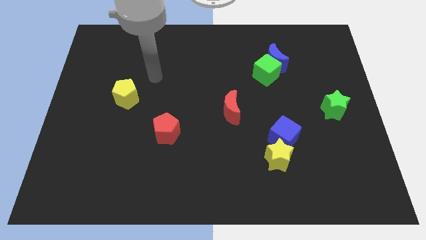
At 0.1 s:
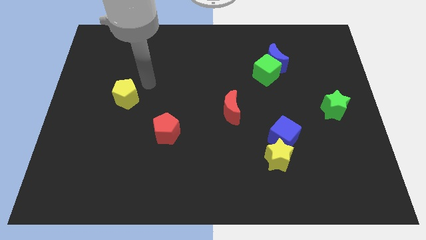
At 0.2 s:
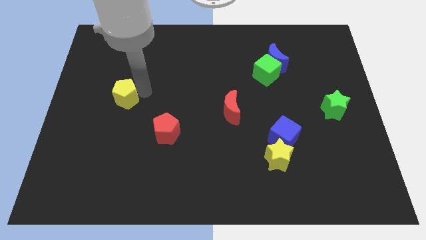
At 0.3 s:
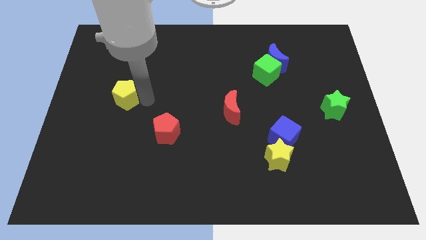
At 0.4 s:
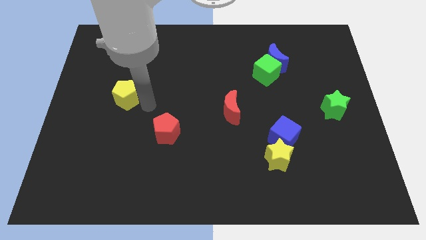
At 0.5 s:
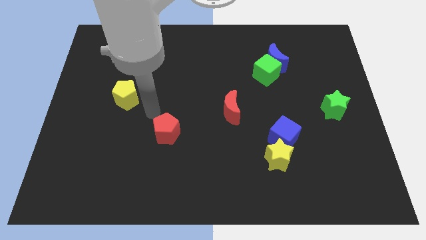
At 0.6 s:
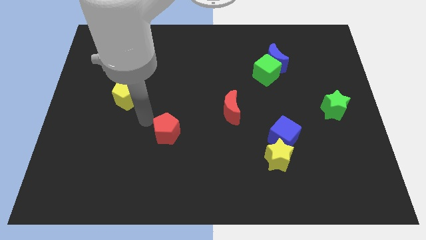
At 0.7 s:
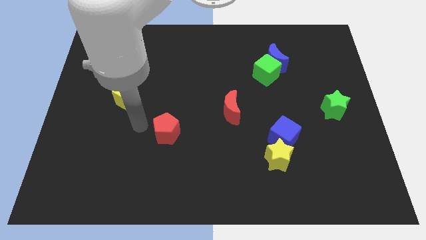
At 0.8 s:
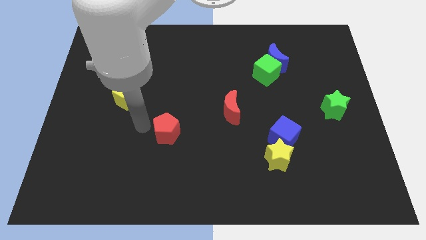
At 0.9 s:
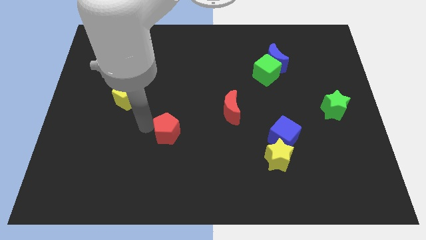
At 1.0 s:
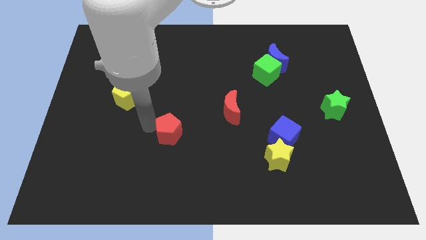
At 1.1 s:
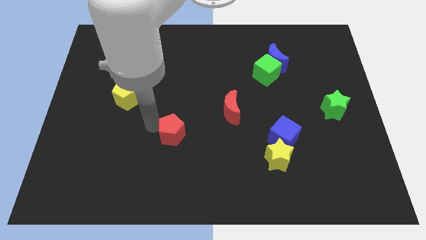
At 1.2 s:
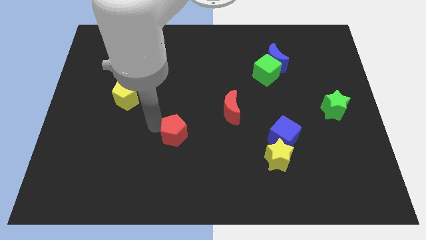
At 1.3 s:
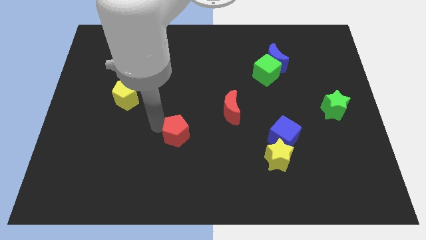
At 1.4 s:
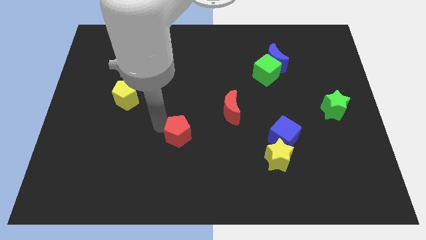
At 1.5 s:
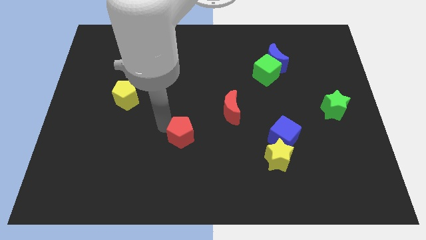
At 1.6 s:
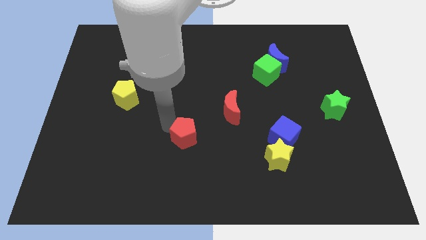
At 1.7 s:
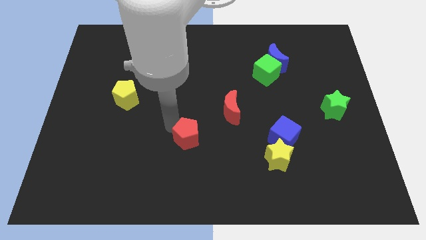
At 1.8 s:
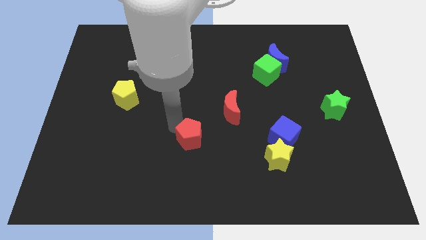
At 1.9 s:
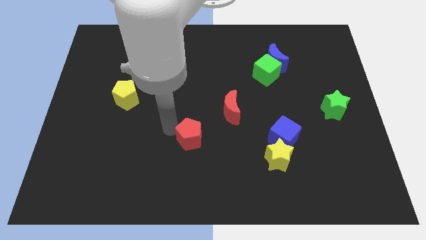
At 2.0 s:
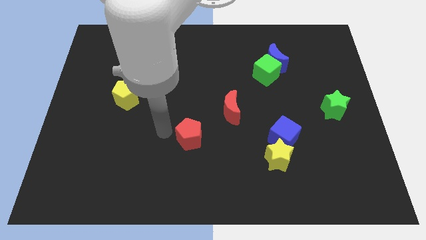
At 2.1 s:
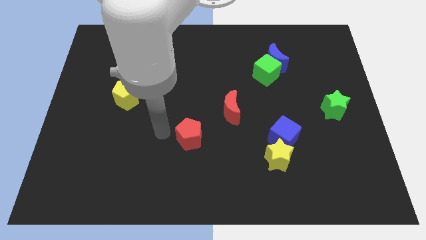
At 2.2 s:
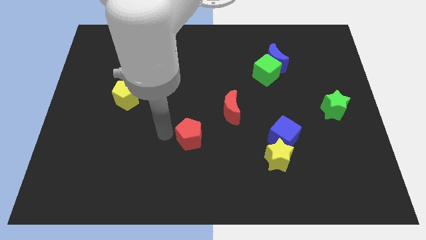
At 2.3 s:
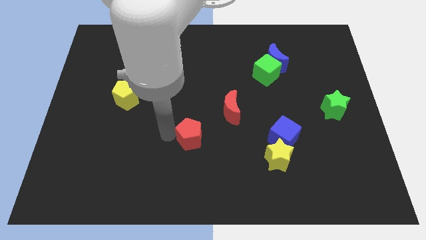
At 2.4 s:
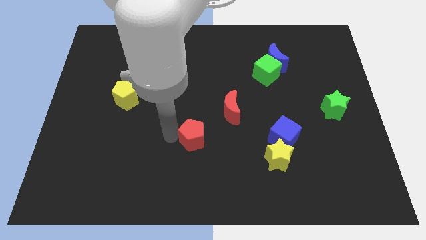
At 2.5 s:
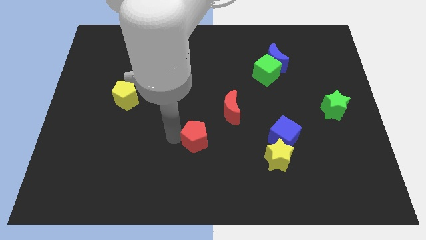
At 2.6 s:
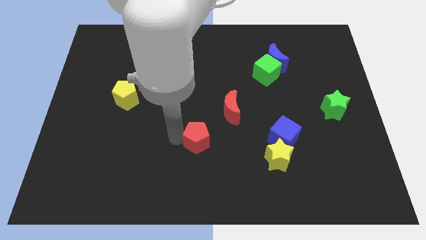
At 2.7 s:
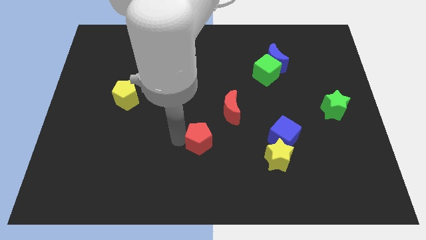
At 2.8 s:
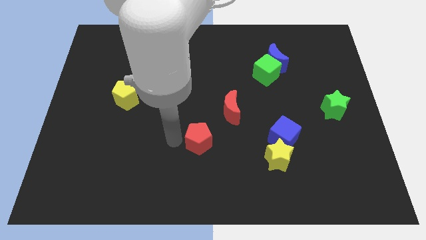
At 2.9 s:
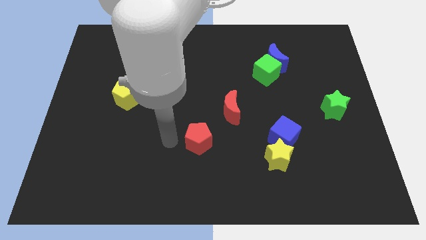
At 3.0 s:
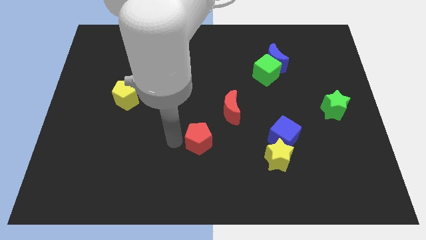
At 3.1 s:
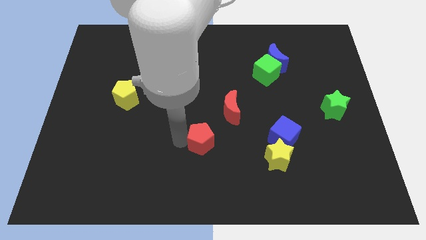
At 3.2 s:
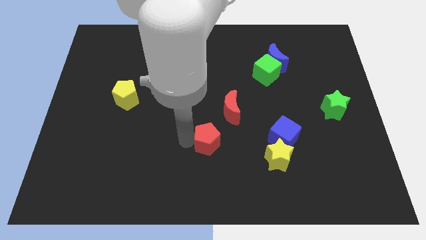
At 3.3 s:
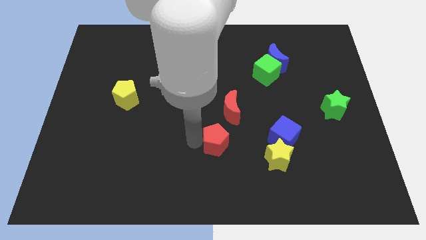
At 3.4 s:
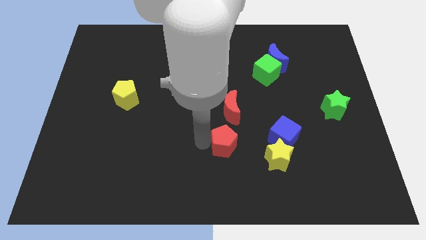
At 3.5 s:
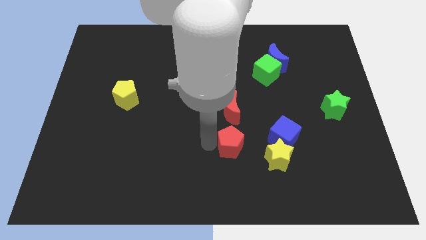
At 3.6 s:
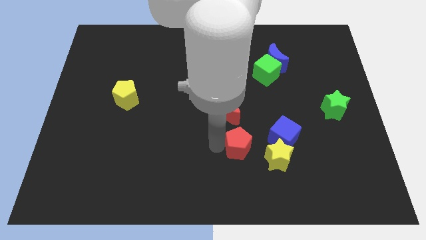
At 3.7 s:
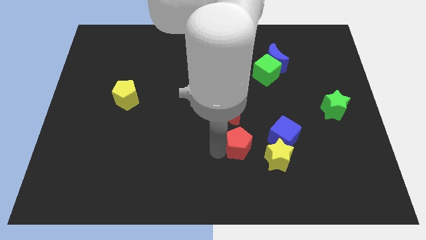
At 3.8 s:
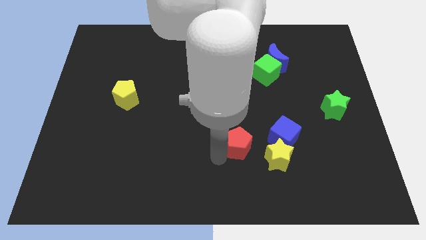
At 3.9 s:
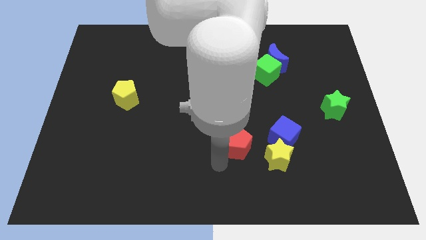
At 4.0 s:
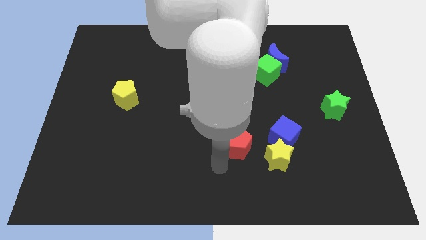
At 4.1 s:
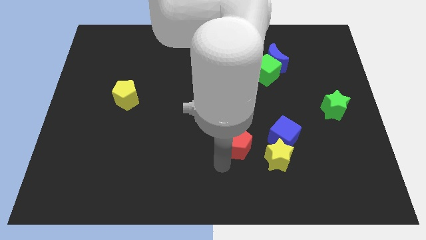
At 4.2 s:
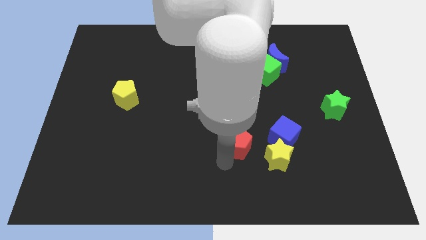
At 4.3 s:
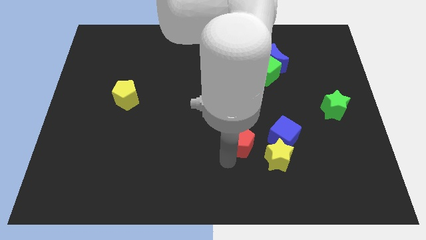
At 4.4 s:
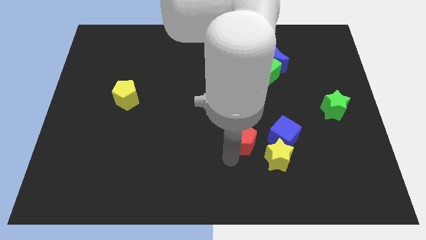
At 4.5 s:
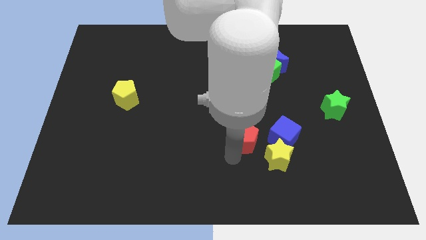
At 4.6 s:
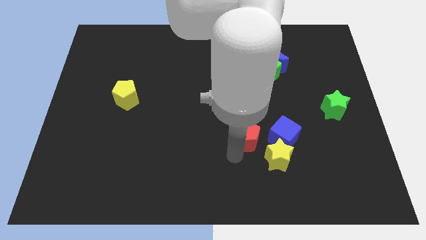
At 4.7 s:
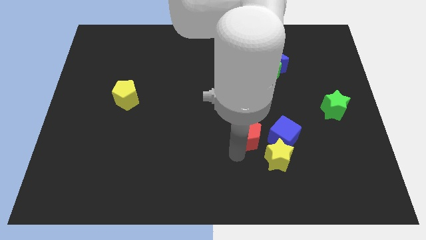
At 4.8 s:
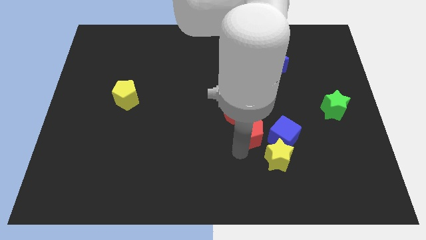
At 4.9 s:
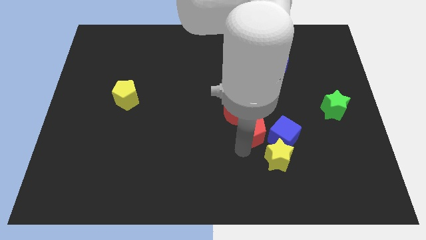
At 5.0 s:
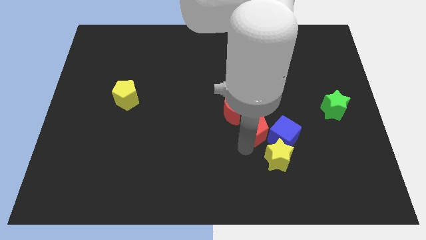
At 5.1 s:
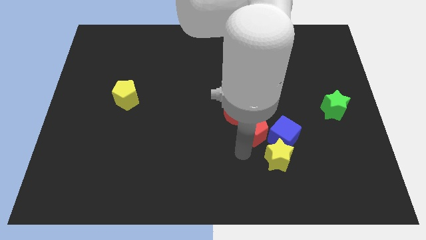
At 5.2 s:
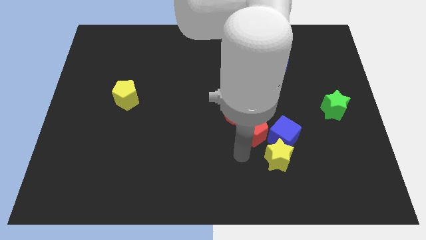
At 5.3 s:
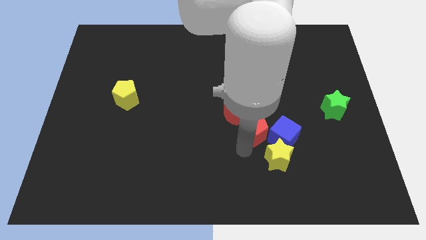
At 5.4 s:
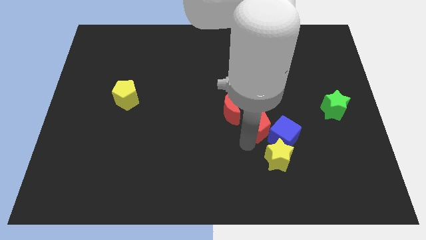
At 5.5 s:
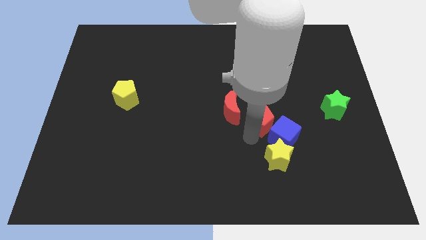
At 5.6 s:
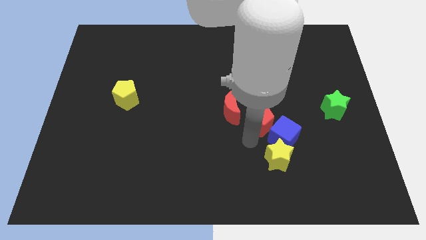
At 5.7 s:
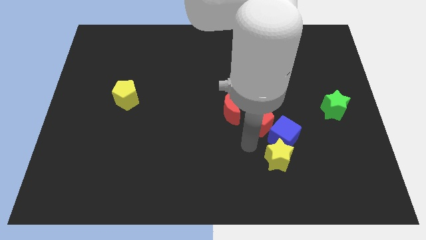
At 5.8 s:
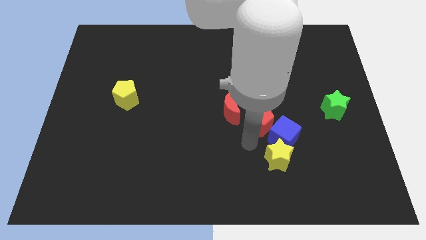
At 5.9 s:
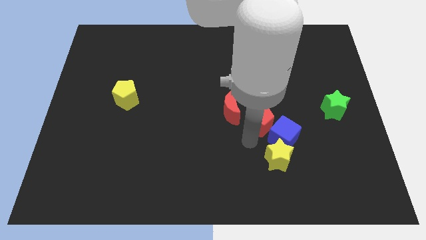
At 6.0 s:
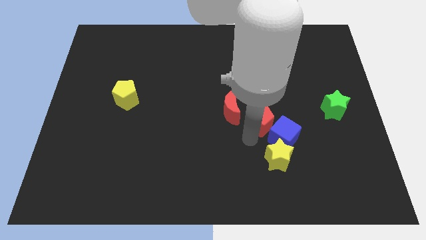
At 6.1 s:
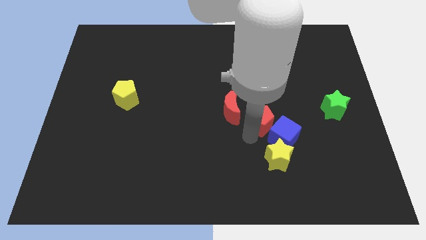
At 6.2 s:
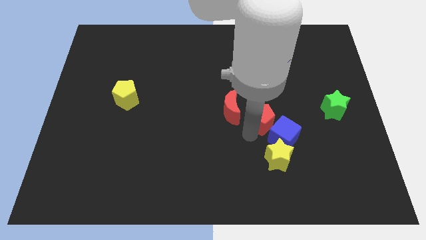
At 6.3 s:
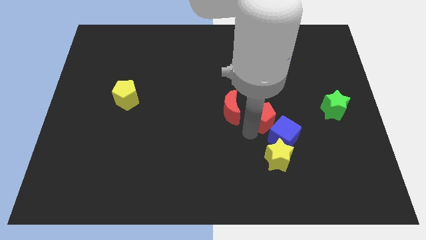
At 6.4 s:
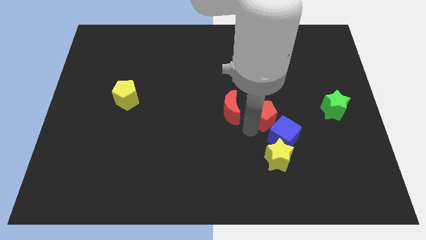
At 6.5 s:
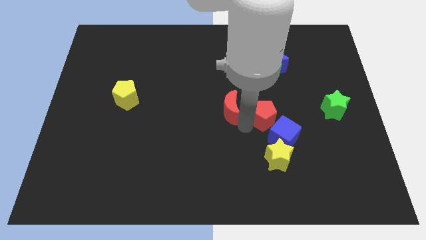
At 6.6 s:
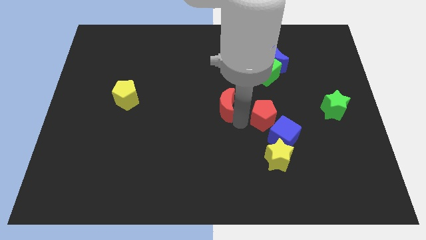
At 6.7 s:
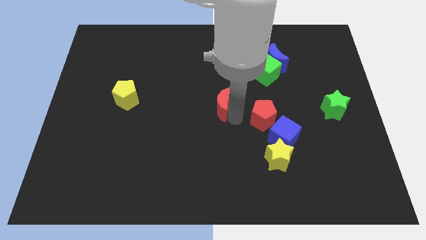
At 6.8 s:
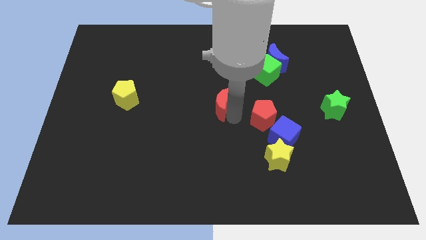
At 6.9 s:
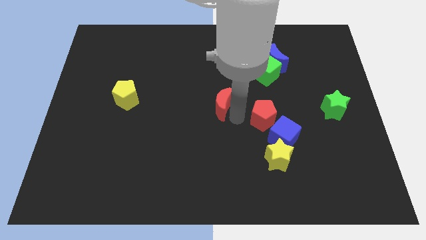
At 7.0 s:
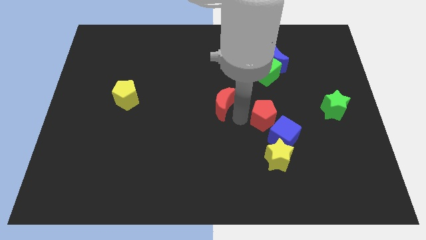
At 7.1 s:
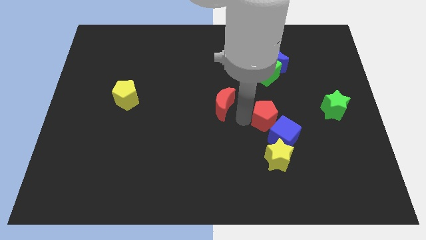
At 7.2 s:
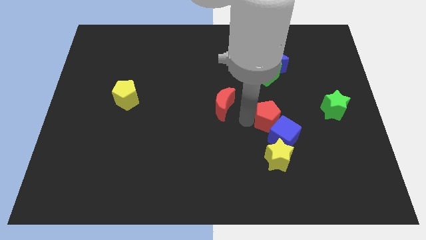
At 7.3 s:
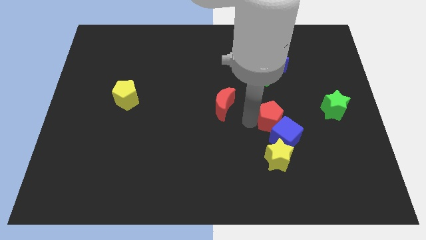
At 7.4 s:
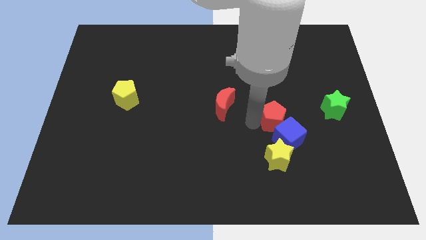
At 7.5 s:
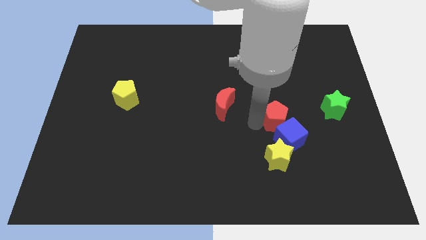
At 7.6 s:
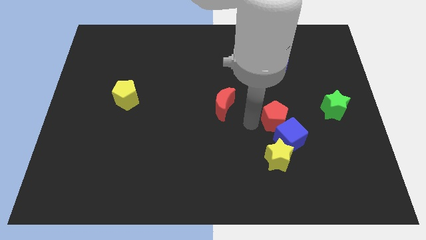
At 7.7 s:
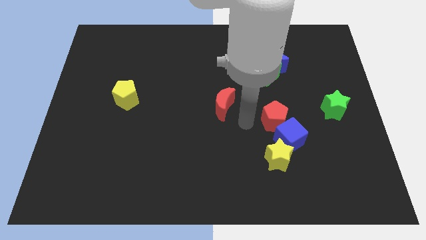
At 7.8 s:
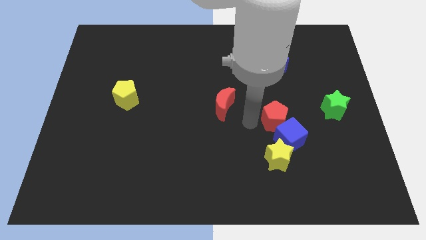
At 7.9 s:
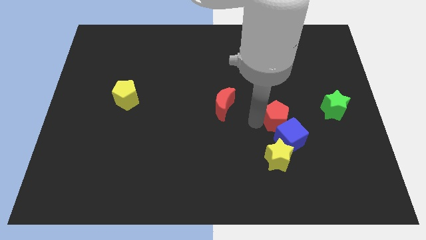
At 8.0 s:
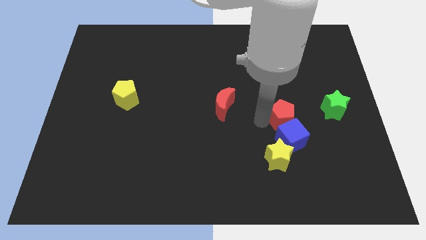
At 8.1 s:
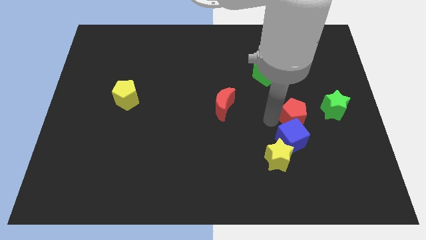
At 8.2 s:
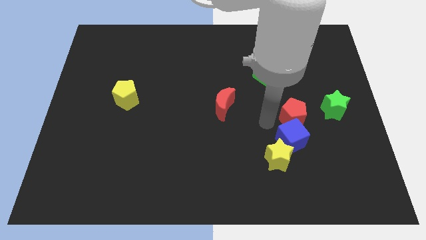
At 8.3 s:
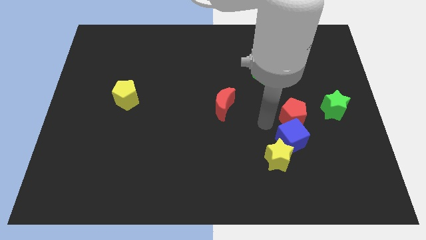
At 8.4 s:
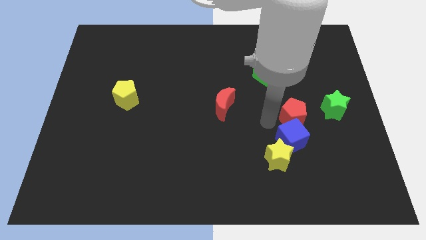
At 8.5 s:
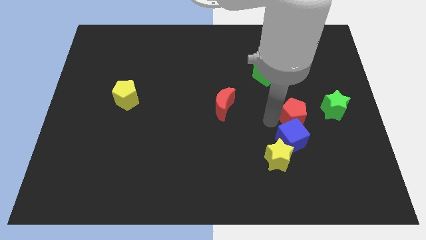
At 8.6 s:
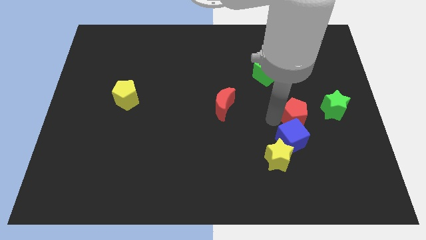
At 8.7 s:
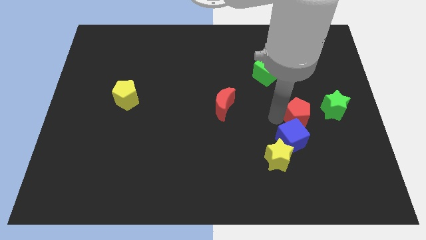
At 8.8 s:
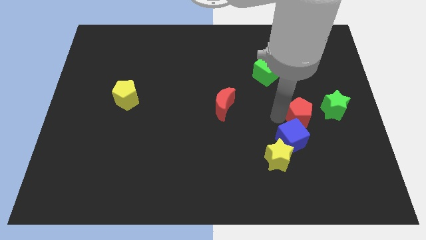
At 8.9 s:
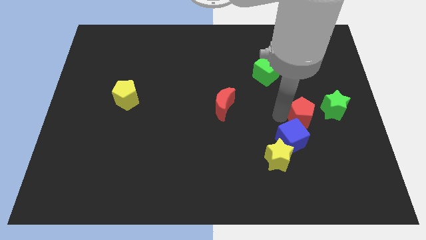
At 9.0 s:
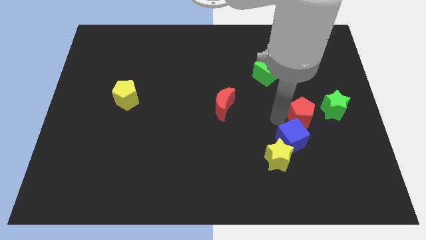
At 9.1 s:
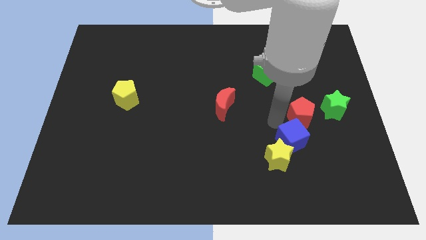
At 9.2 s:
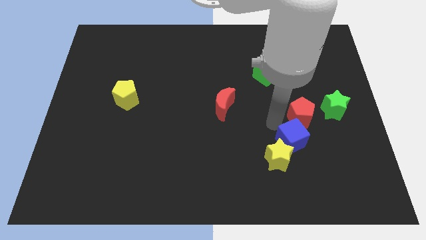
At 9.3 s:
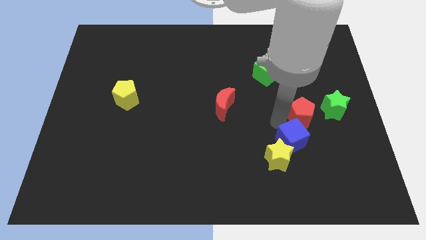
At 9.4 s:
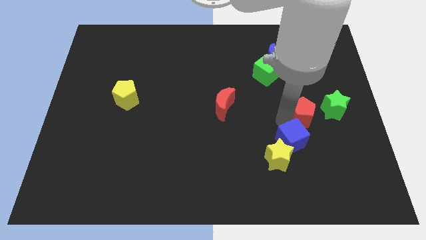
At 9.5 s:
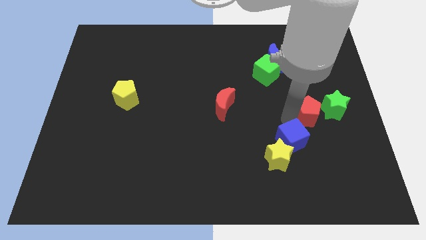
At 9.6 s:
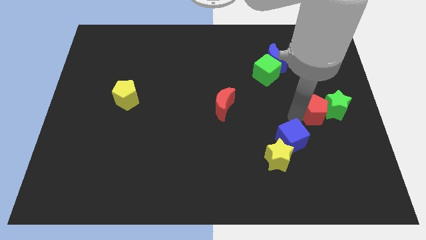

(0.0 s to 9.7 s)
move the red pentagon towards the green star
